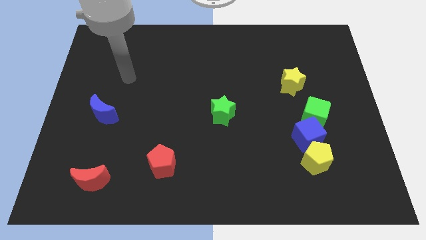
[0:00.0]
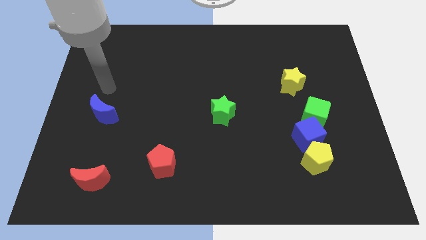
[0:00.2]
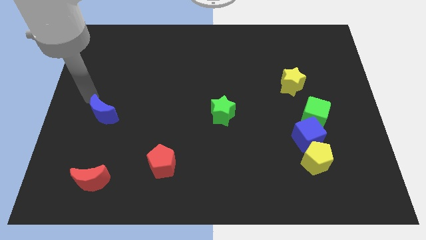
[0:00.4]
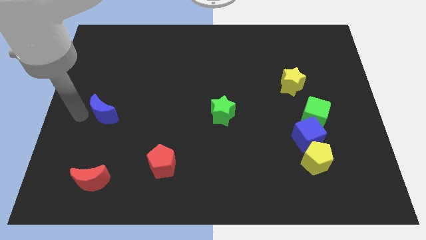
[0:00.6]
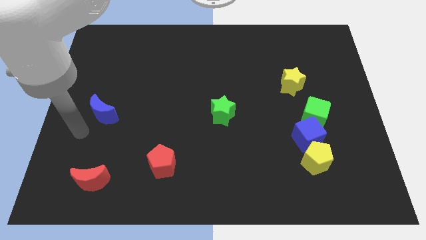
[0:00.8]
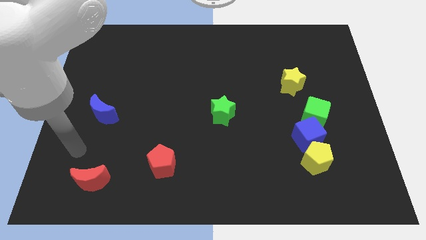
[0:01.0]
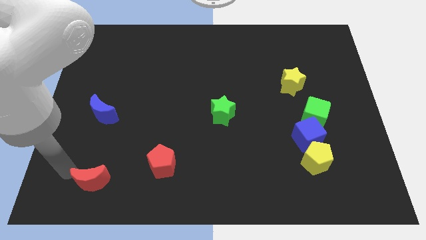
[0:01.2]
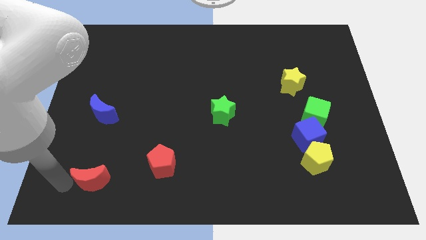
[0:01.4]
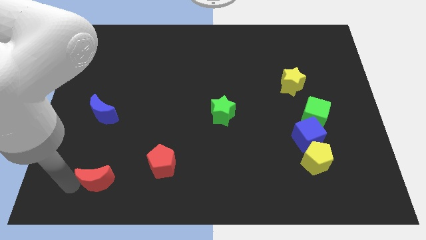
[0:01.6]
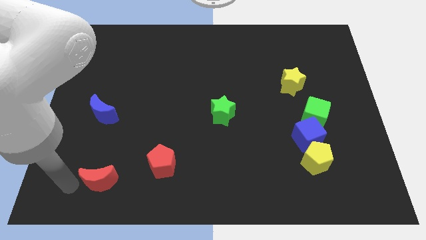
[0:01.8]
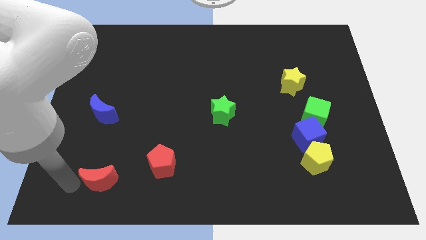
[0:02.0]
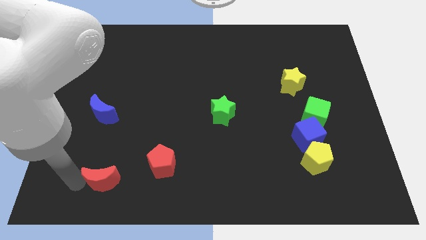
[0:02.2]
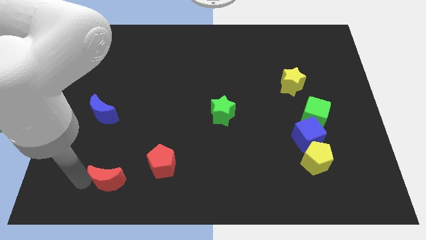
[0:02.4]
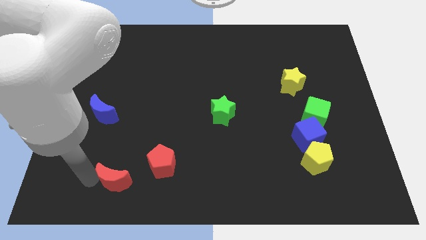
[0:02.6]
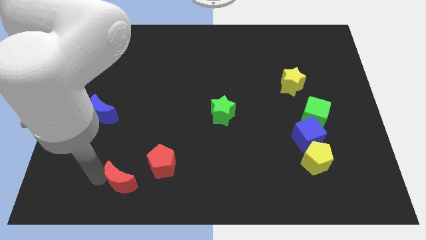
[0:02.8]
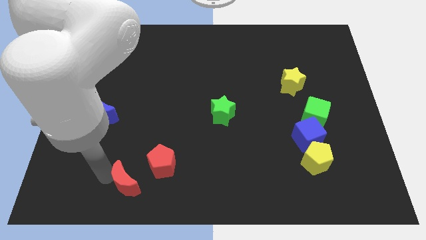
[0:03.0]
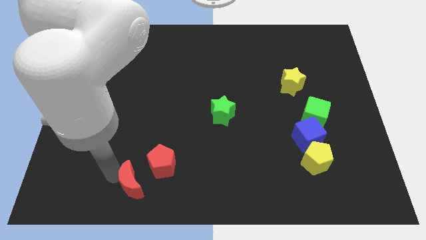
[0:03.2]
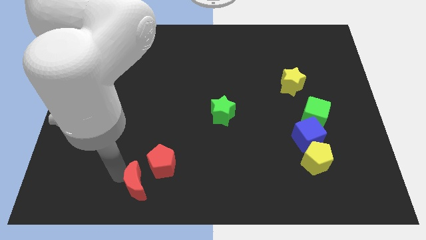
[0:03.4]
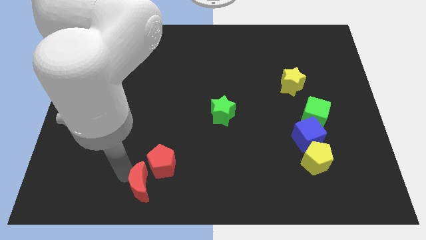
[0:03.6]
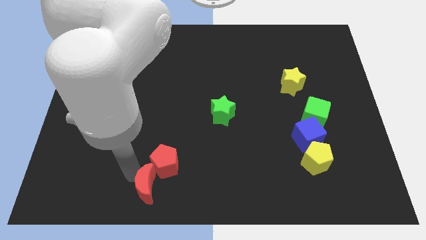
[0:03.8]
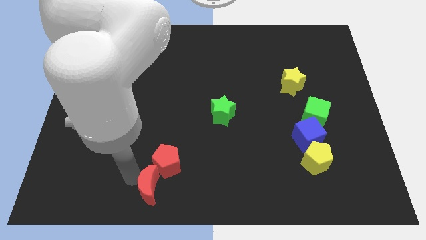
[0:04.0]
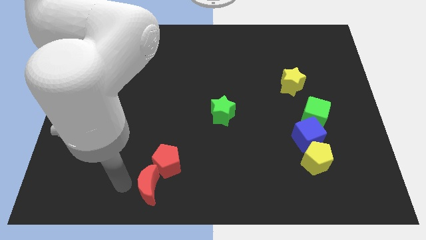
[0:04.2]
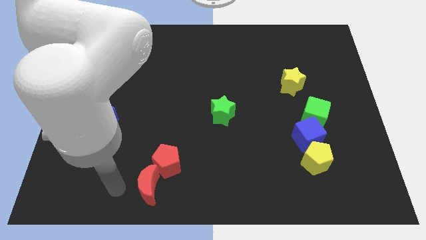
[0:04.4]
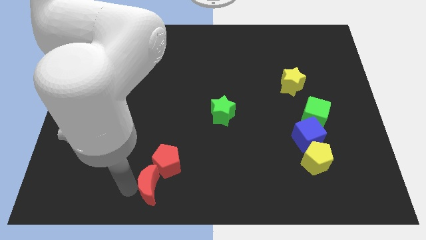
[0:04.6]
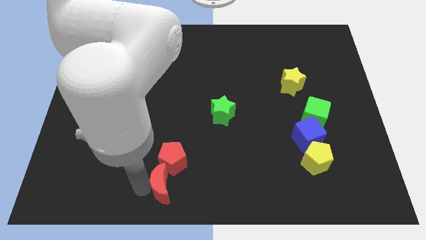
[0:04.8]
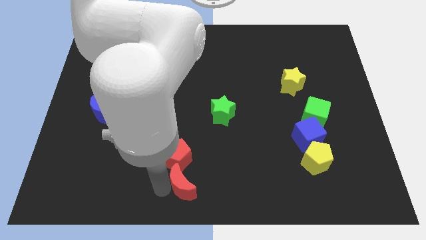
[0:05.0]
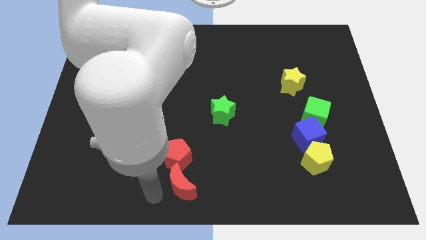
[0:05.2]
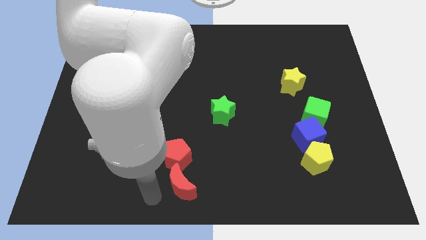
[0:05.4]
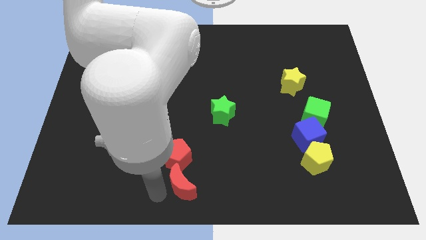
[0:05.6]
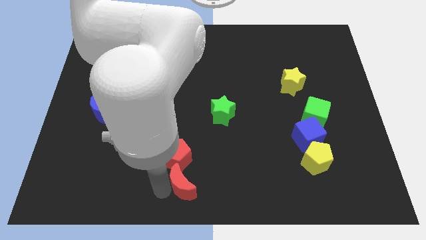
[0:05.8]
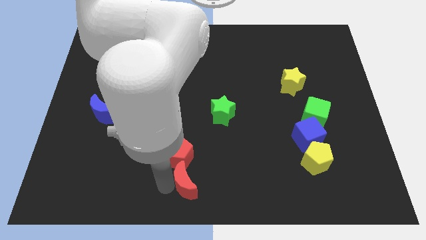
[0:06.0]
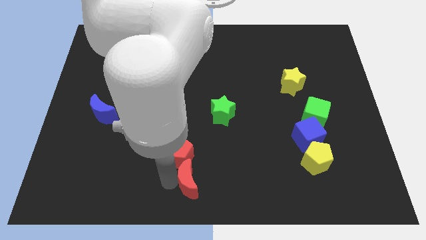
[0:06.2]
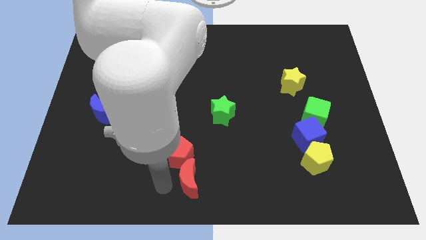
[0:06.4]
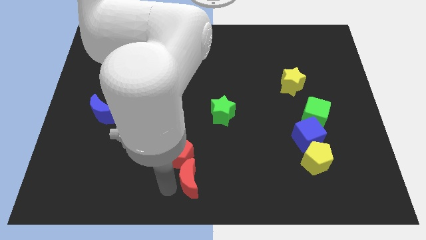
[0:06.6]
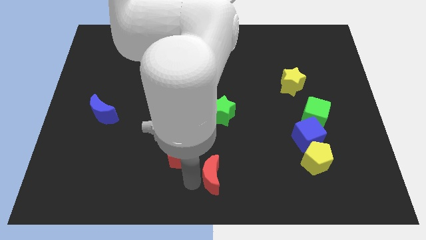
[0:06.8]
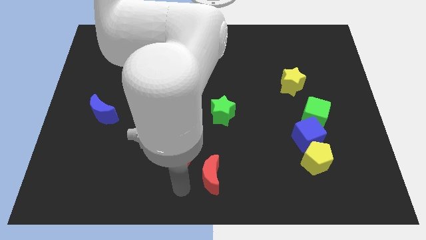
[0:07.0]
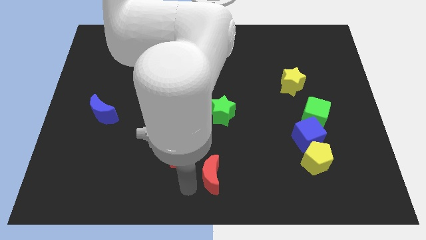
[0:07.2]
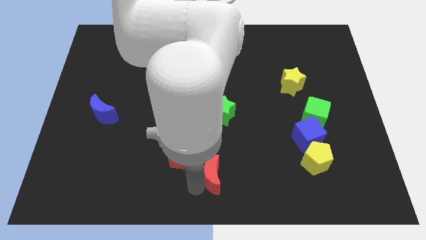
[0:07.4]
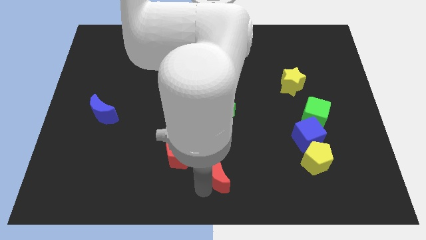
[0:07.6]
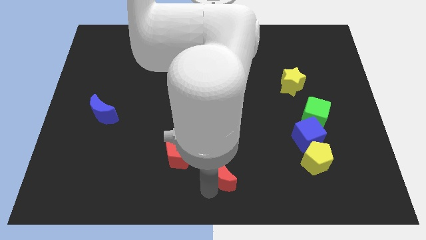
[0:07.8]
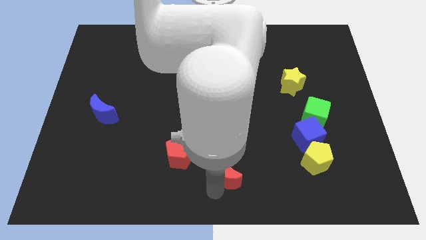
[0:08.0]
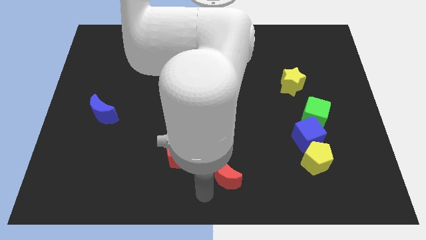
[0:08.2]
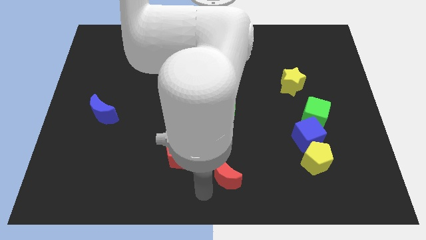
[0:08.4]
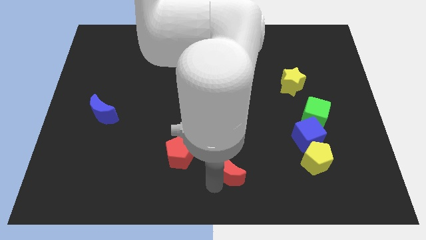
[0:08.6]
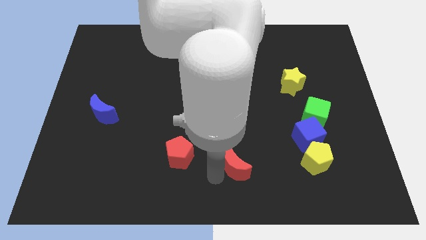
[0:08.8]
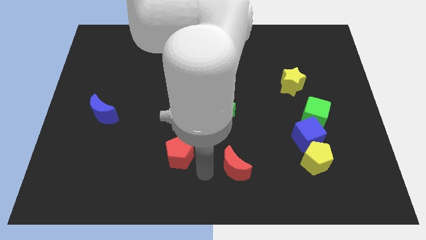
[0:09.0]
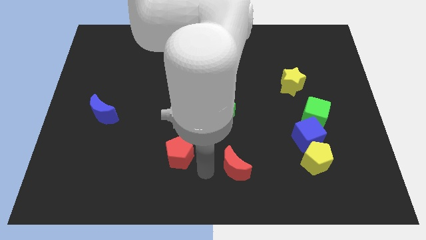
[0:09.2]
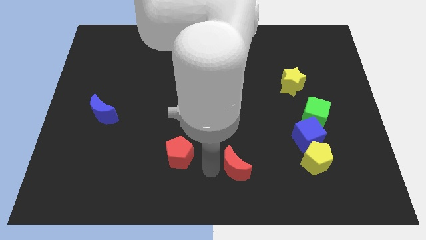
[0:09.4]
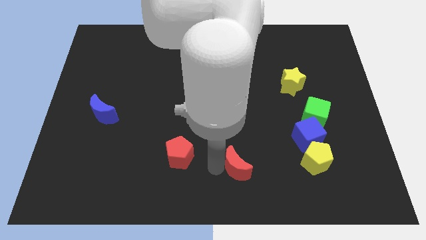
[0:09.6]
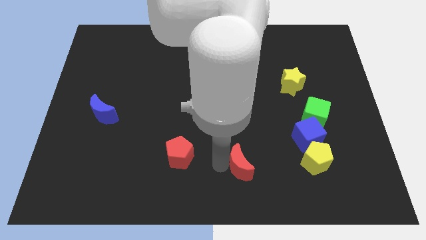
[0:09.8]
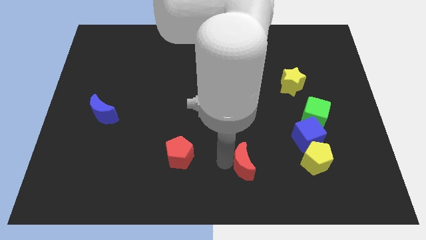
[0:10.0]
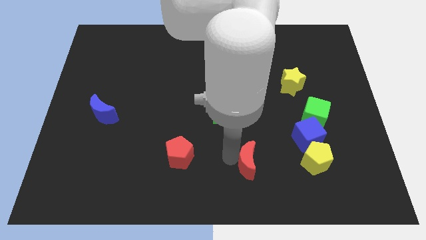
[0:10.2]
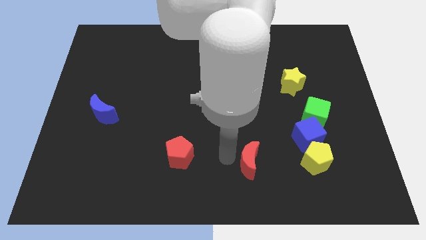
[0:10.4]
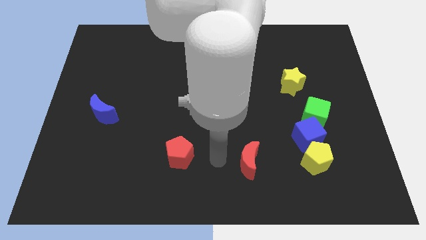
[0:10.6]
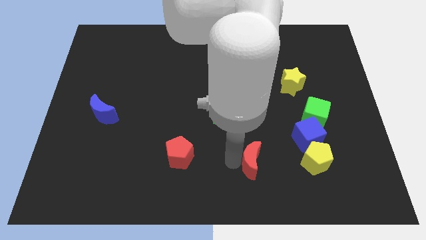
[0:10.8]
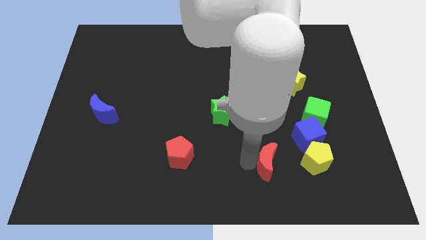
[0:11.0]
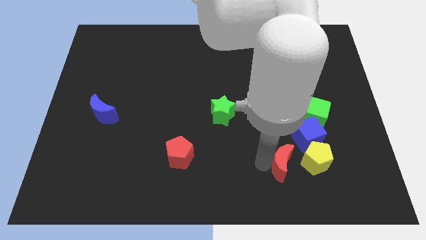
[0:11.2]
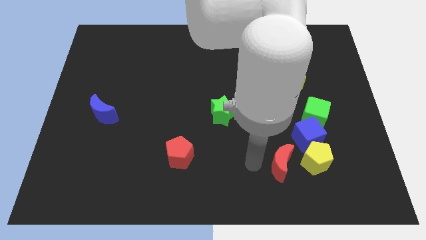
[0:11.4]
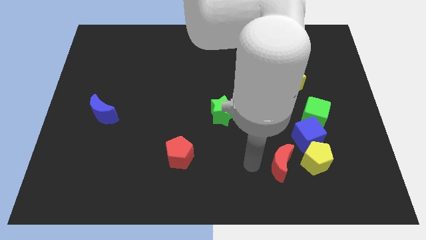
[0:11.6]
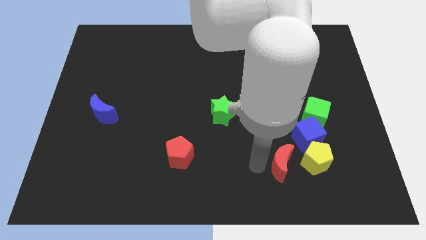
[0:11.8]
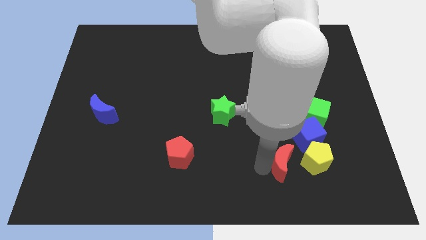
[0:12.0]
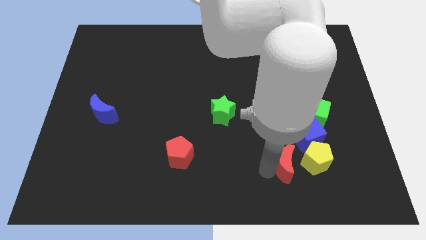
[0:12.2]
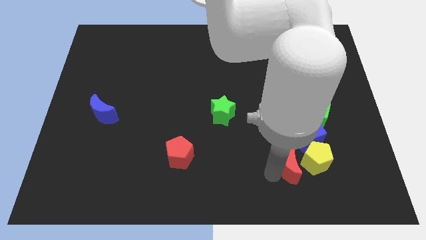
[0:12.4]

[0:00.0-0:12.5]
put the red moon to the yellow pentagon

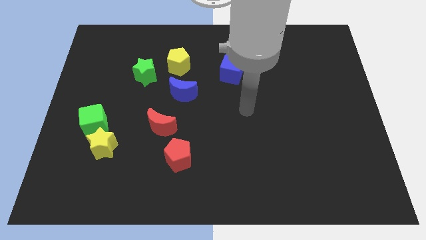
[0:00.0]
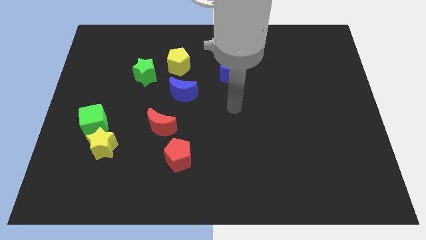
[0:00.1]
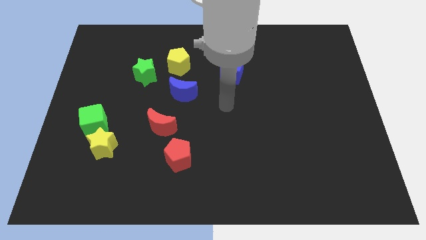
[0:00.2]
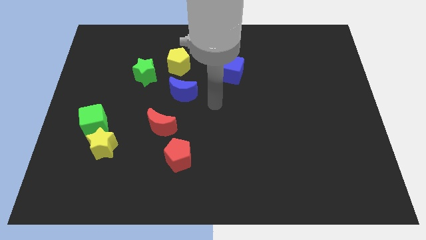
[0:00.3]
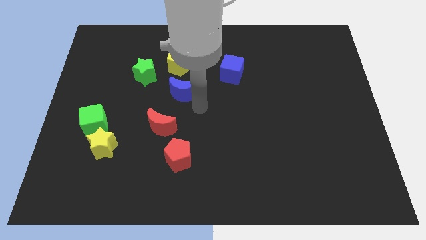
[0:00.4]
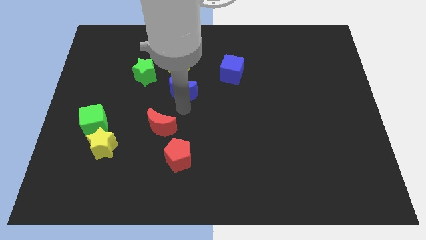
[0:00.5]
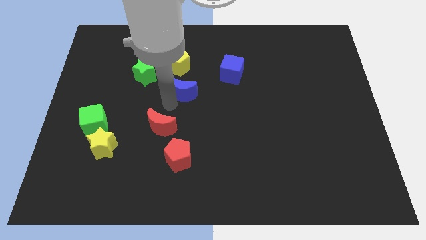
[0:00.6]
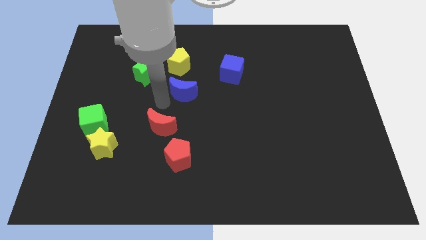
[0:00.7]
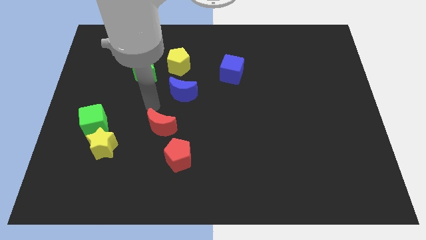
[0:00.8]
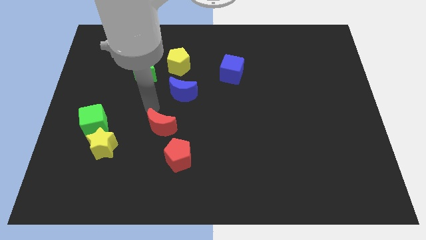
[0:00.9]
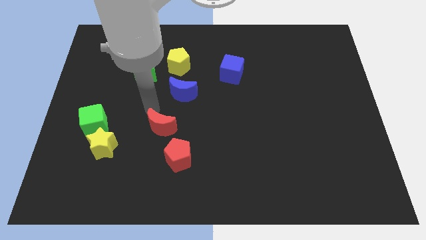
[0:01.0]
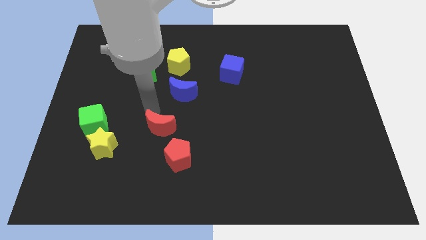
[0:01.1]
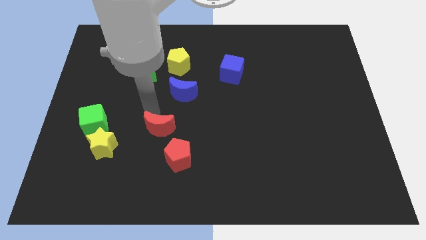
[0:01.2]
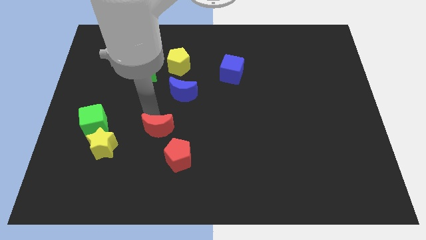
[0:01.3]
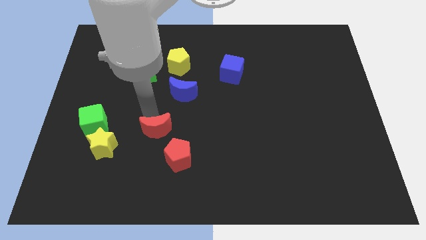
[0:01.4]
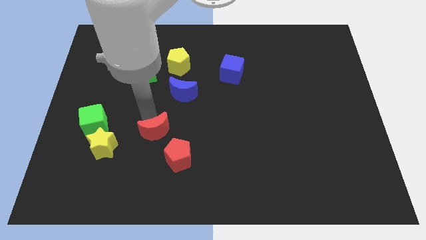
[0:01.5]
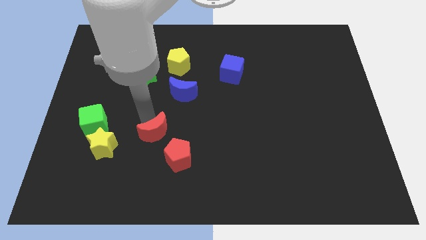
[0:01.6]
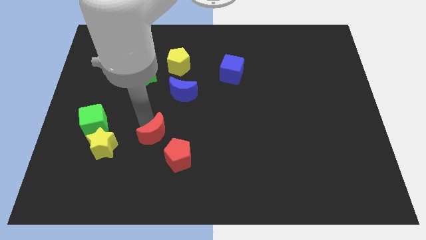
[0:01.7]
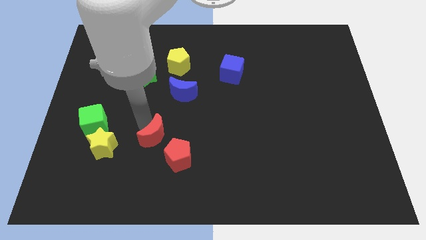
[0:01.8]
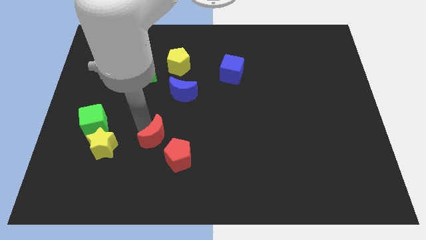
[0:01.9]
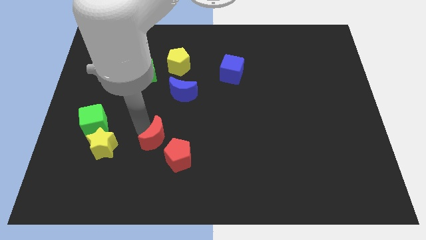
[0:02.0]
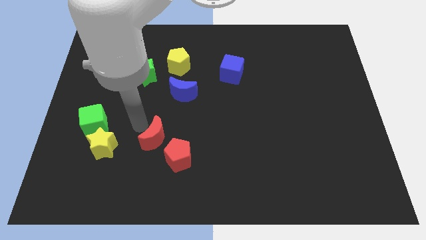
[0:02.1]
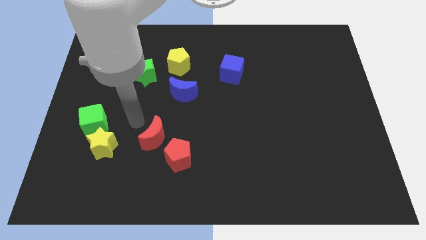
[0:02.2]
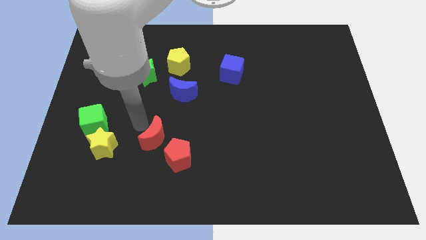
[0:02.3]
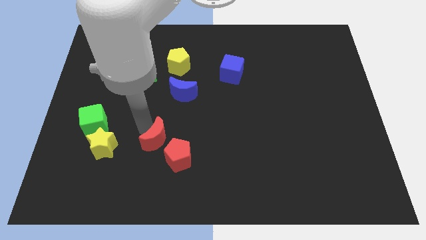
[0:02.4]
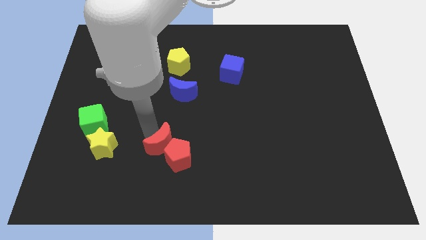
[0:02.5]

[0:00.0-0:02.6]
slide the red moon close to the red pentagon
